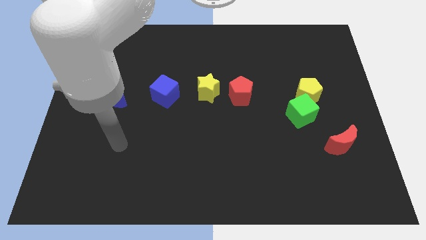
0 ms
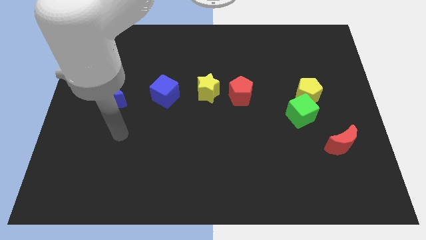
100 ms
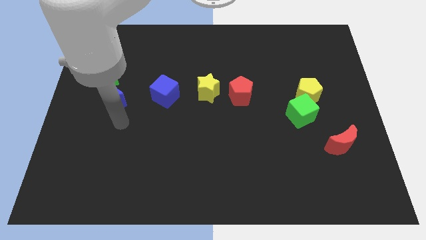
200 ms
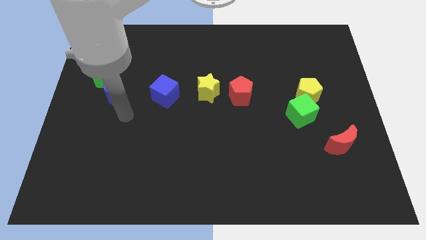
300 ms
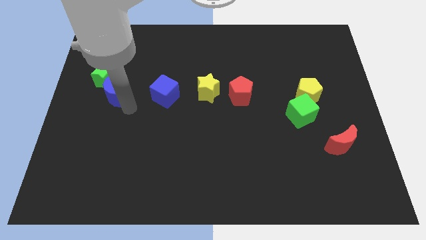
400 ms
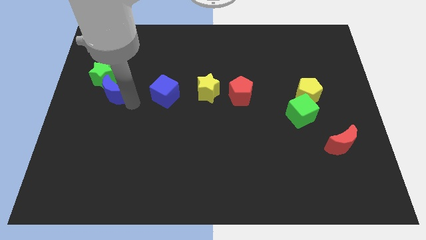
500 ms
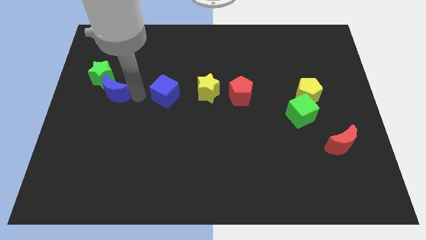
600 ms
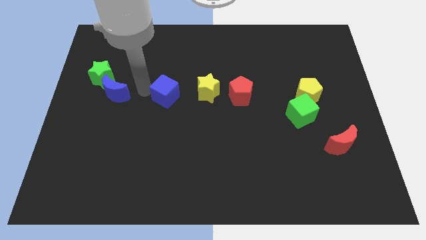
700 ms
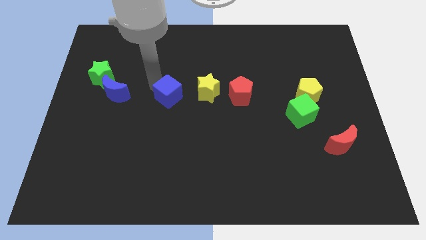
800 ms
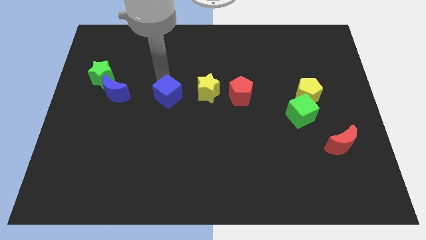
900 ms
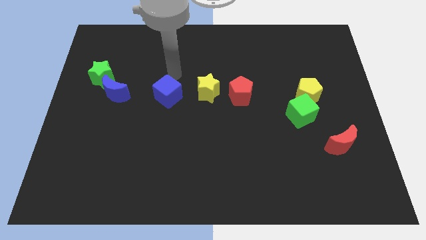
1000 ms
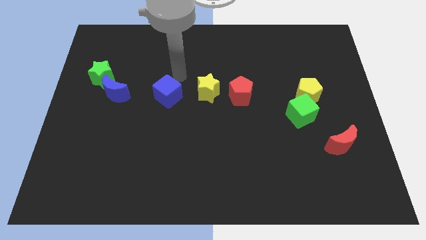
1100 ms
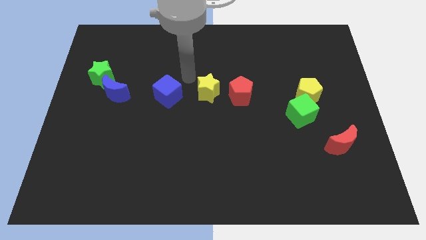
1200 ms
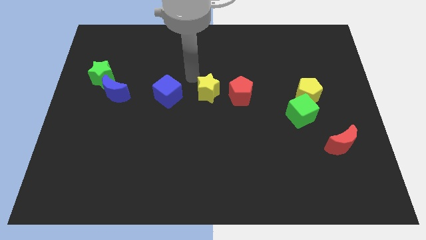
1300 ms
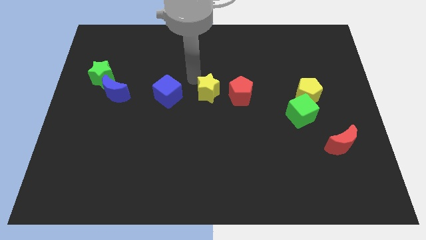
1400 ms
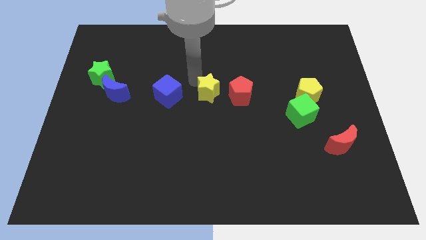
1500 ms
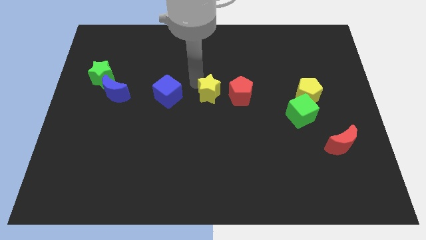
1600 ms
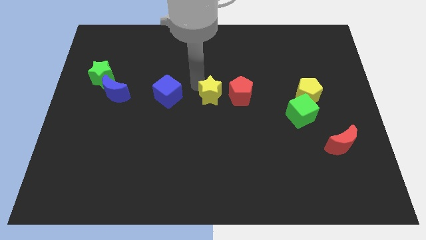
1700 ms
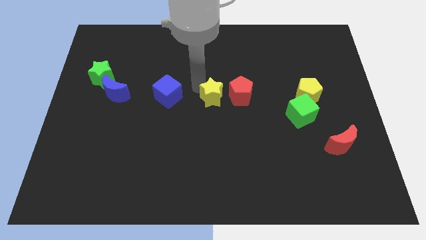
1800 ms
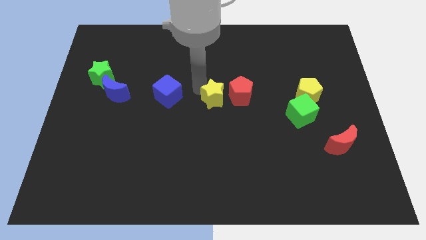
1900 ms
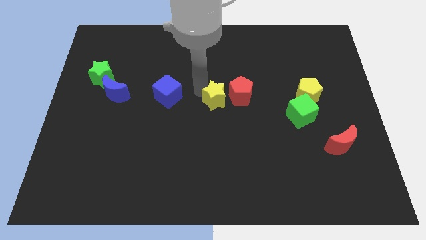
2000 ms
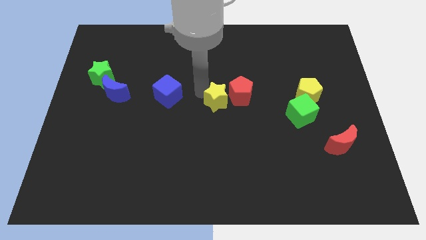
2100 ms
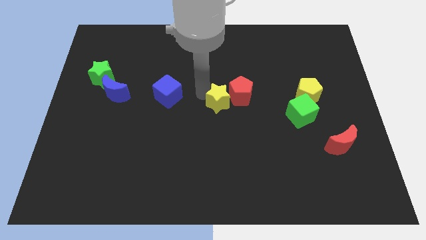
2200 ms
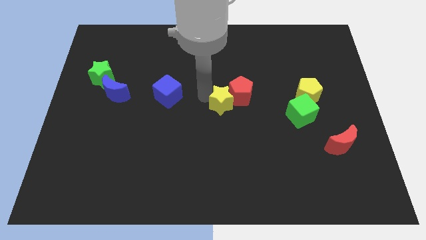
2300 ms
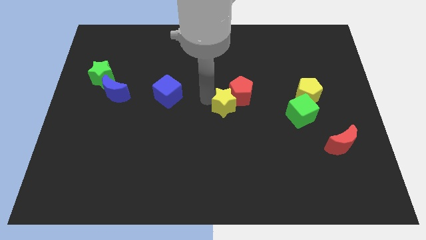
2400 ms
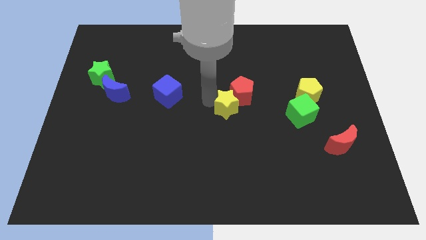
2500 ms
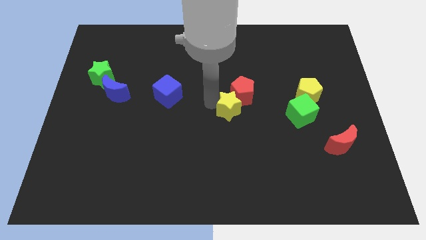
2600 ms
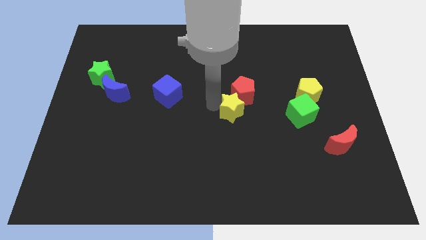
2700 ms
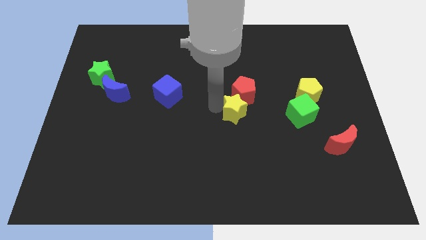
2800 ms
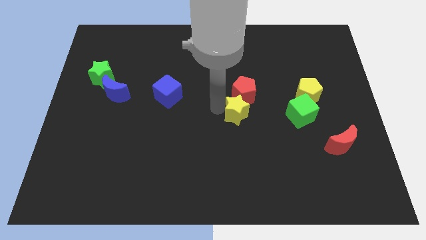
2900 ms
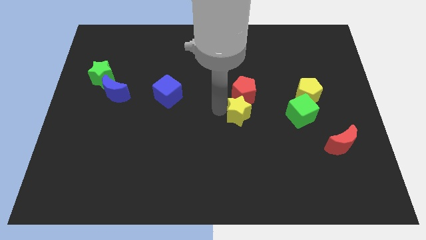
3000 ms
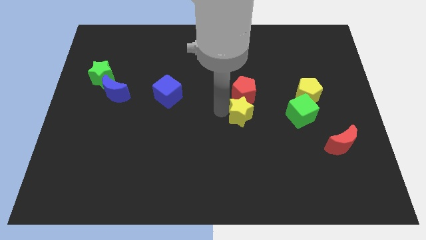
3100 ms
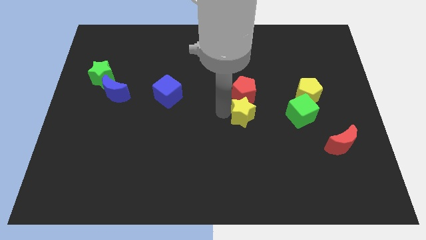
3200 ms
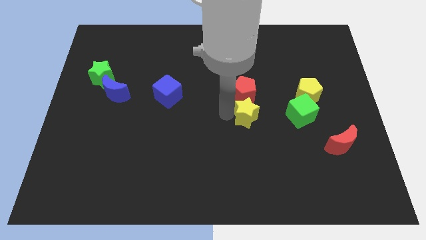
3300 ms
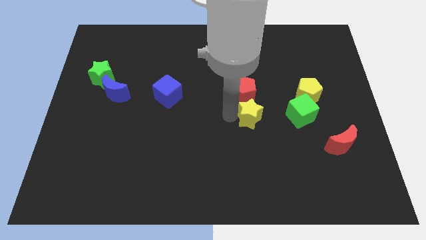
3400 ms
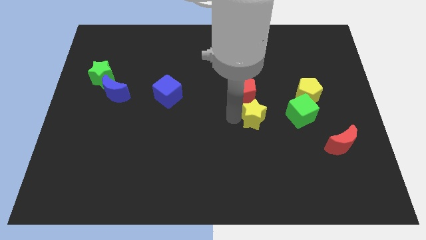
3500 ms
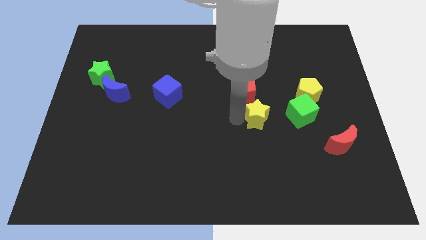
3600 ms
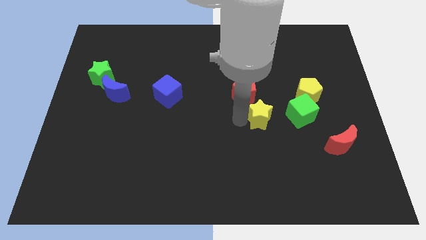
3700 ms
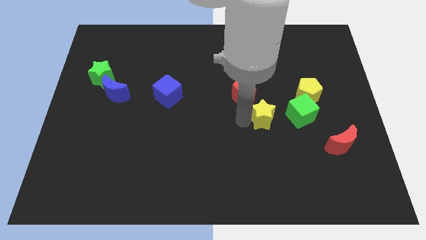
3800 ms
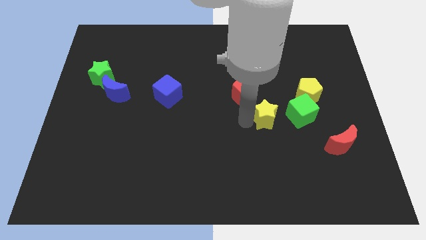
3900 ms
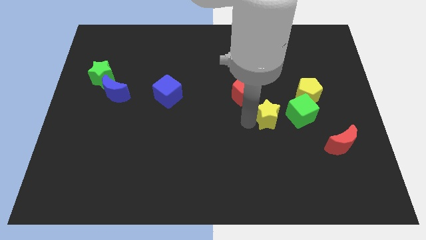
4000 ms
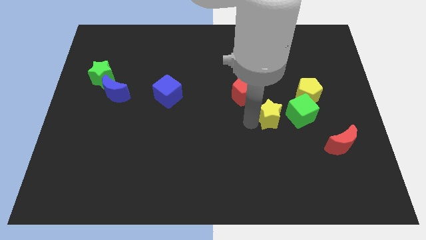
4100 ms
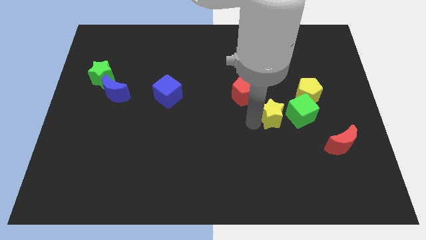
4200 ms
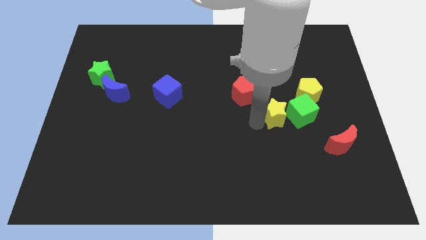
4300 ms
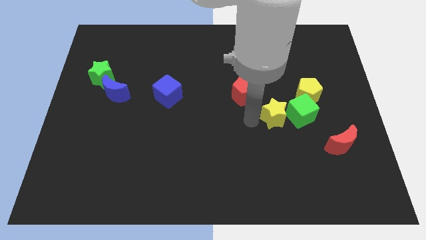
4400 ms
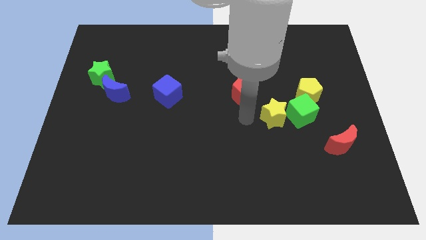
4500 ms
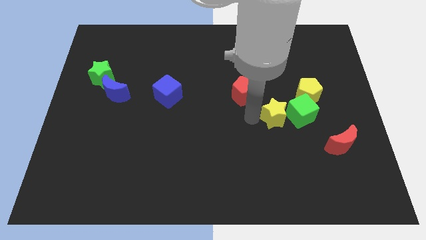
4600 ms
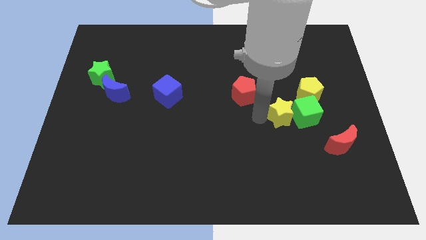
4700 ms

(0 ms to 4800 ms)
push the yellow star towards the green cube

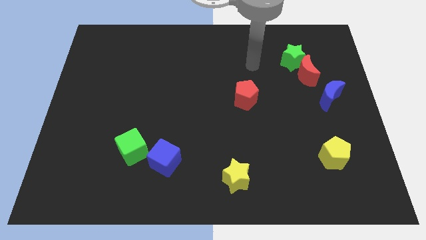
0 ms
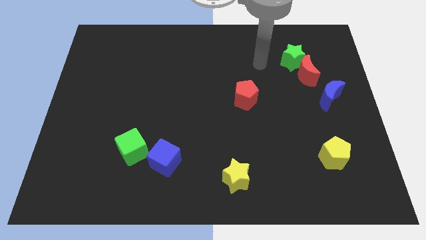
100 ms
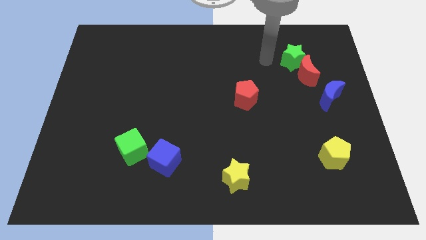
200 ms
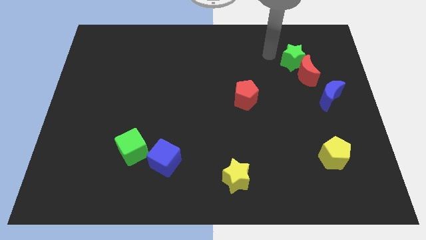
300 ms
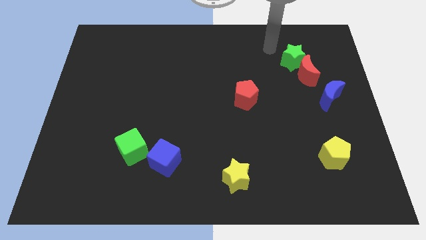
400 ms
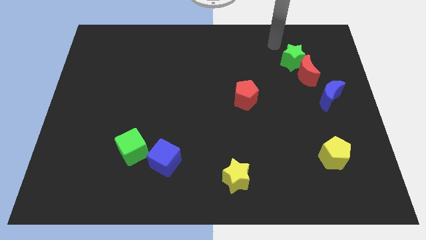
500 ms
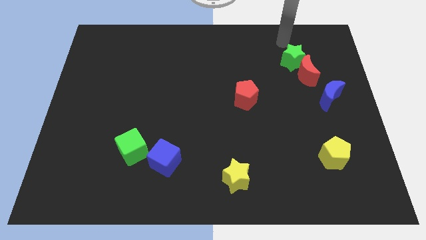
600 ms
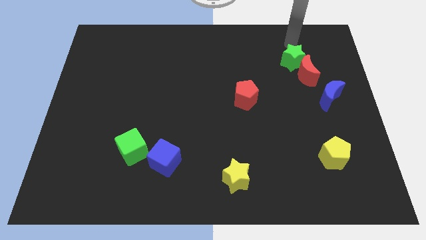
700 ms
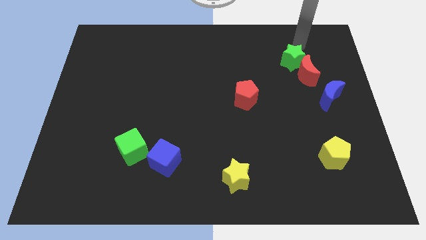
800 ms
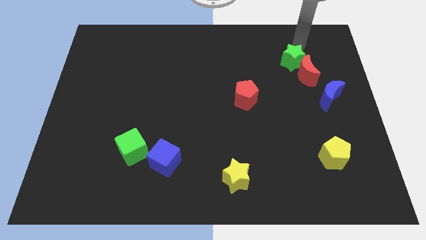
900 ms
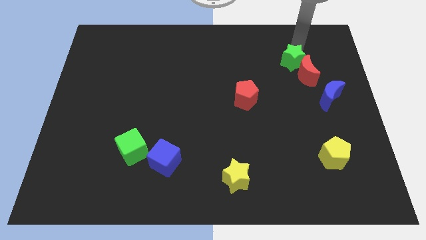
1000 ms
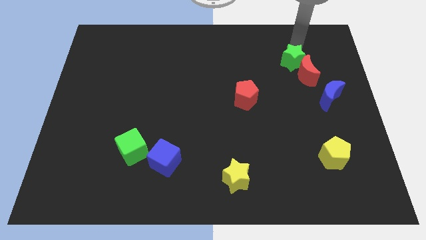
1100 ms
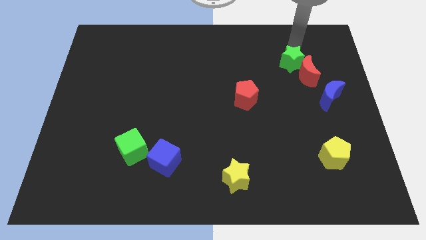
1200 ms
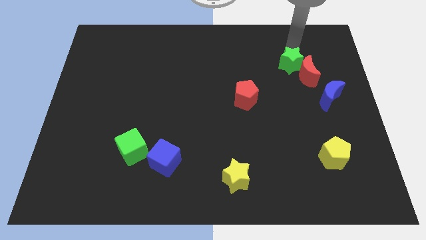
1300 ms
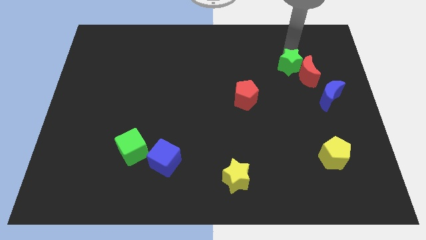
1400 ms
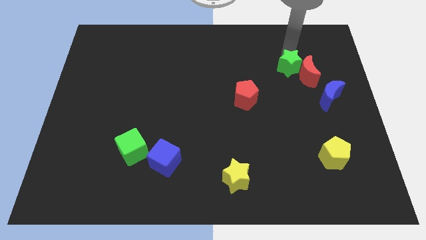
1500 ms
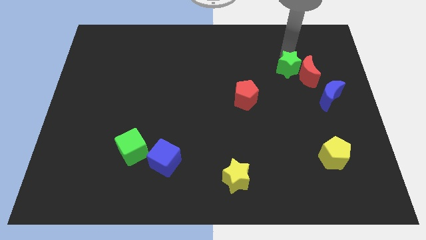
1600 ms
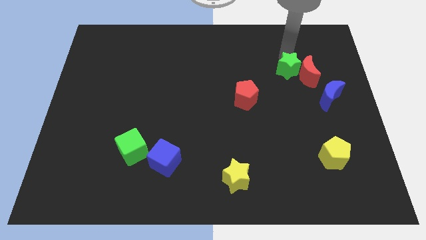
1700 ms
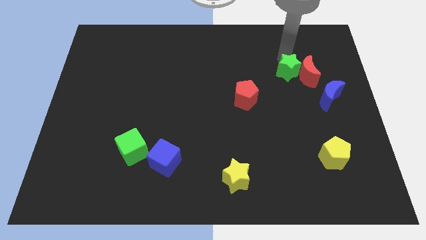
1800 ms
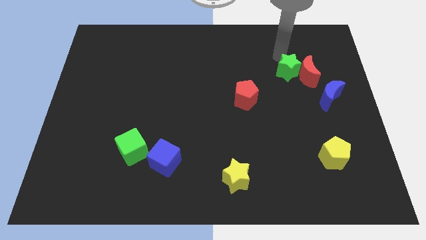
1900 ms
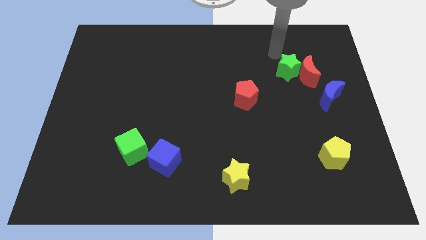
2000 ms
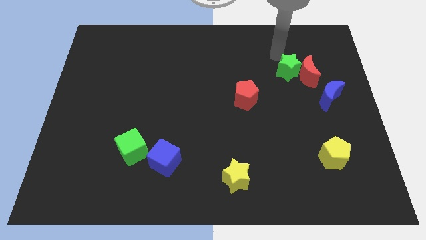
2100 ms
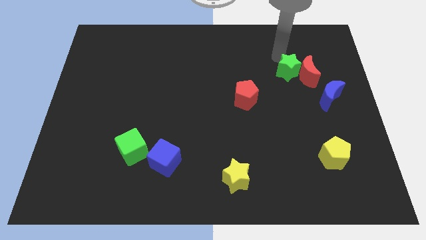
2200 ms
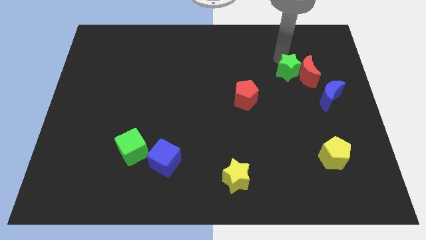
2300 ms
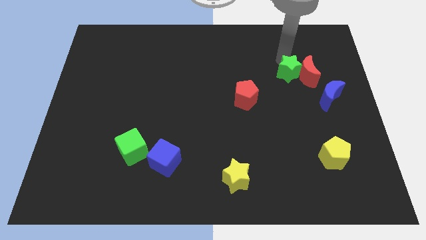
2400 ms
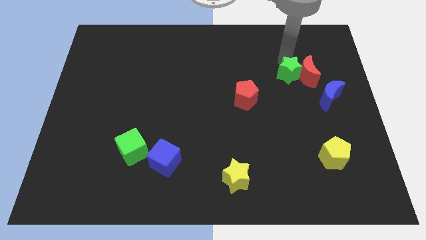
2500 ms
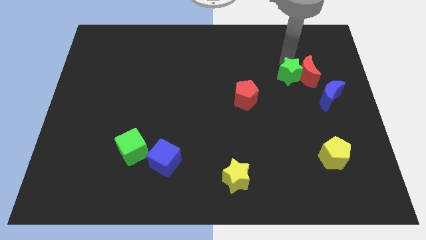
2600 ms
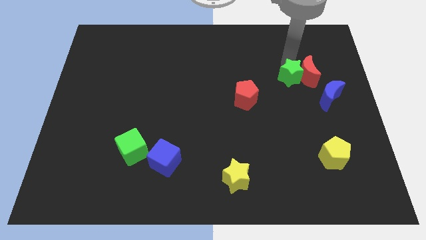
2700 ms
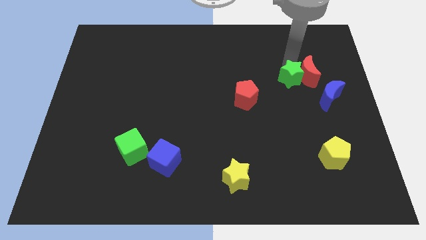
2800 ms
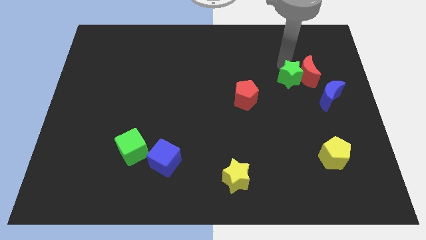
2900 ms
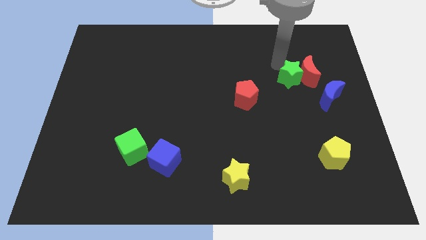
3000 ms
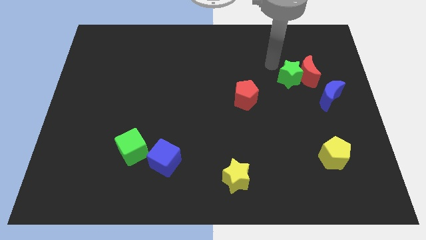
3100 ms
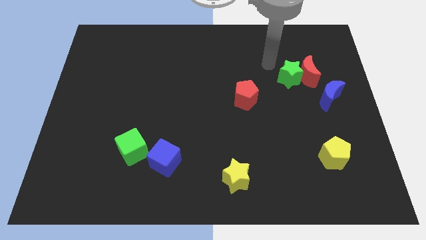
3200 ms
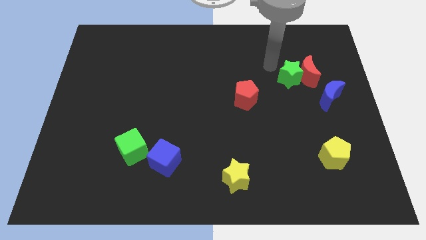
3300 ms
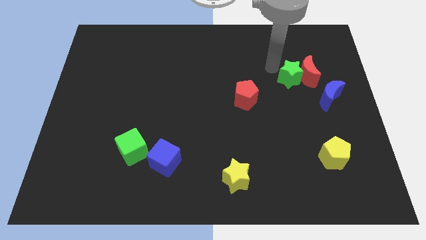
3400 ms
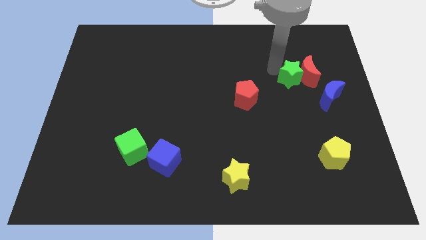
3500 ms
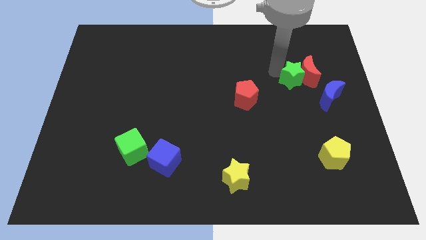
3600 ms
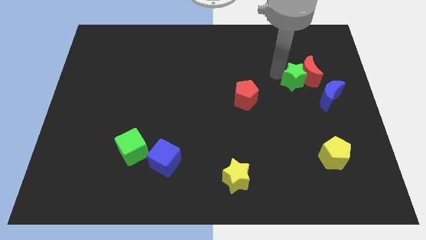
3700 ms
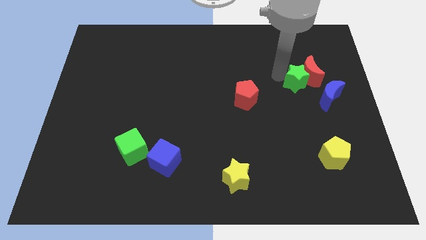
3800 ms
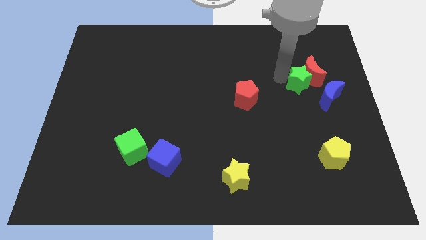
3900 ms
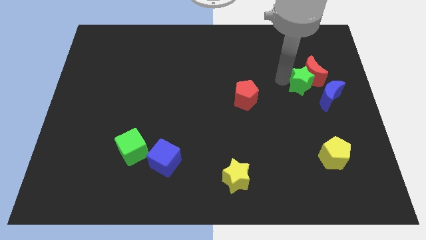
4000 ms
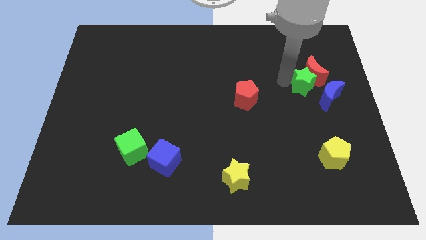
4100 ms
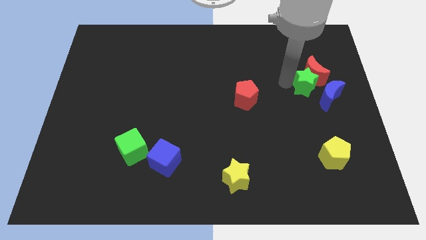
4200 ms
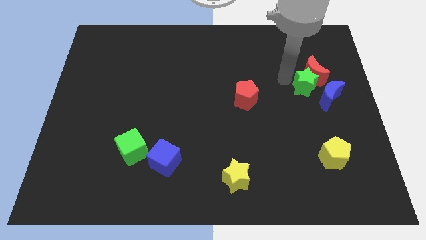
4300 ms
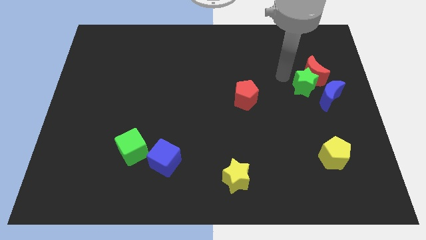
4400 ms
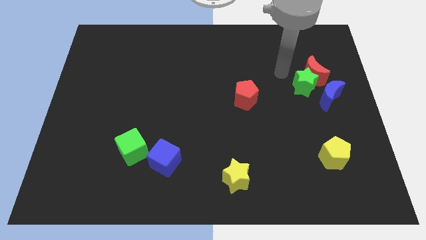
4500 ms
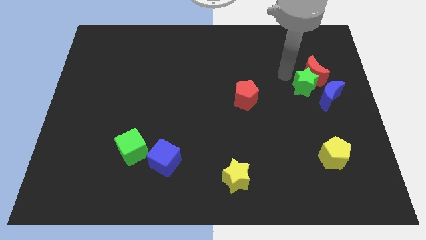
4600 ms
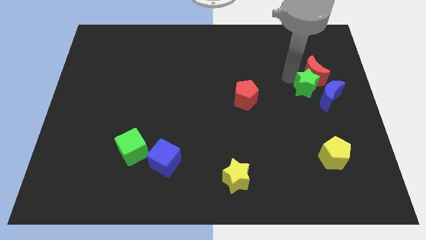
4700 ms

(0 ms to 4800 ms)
move the green star towards the blue moon
